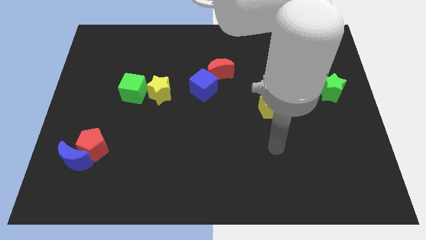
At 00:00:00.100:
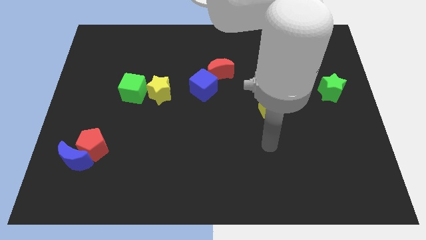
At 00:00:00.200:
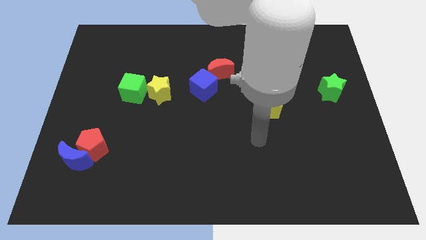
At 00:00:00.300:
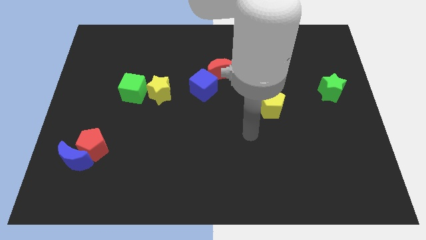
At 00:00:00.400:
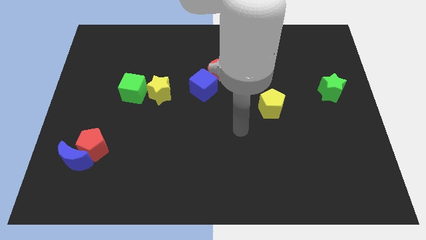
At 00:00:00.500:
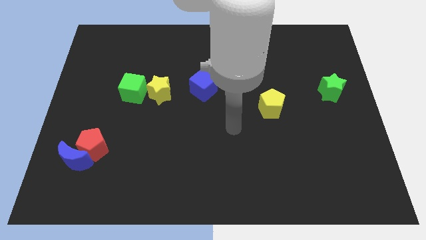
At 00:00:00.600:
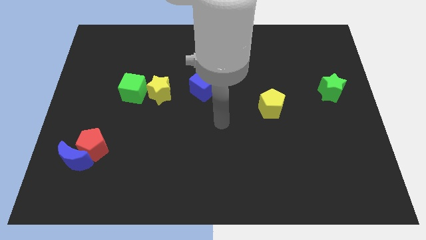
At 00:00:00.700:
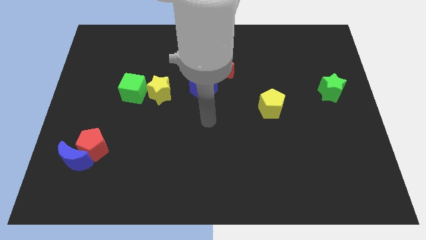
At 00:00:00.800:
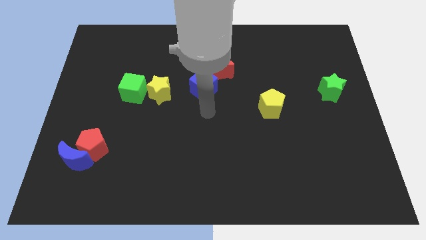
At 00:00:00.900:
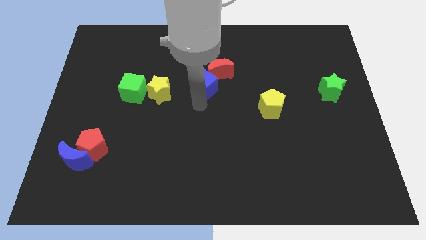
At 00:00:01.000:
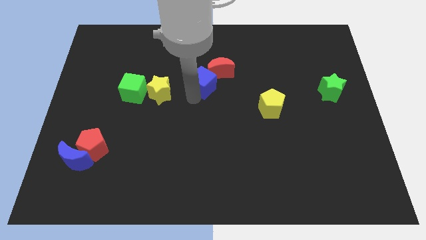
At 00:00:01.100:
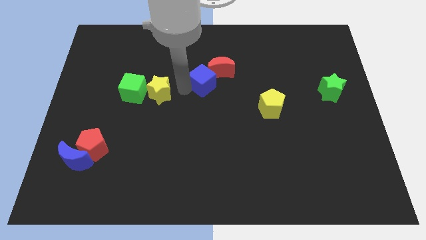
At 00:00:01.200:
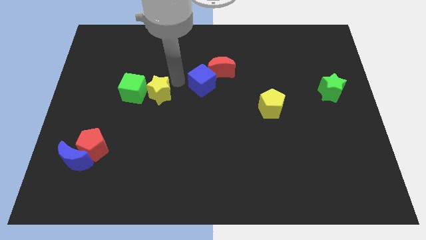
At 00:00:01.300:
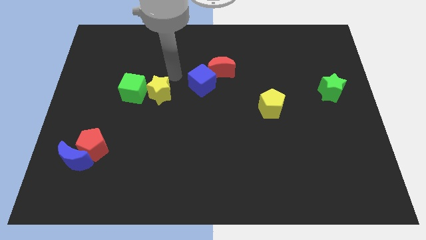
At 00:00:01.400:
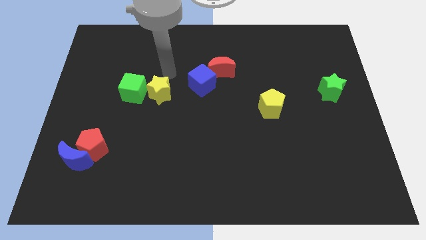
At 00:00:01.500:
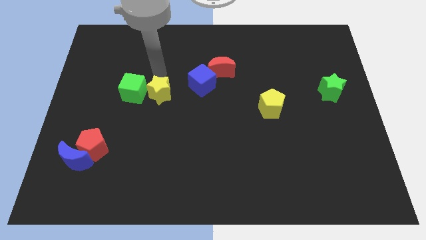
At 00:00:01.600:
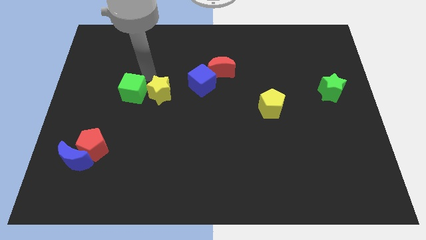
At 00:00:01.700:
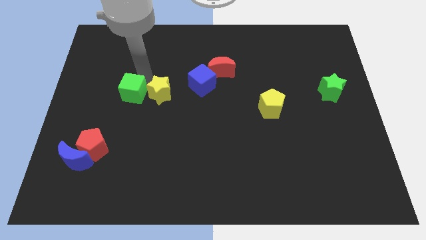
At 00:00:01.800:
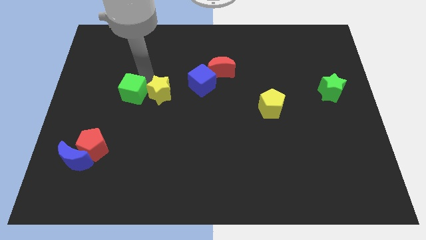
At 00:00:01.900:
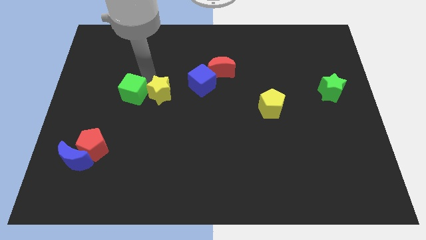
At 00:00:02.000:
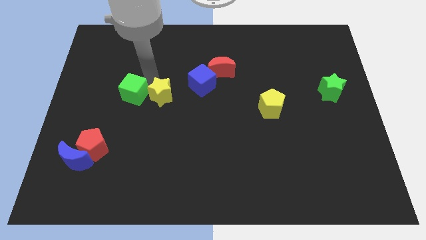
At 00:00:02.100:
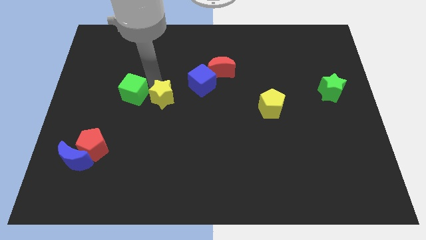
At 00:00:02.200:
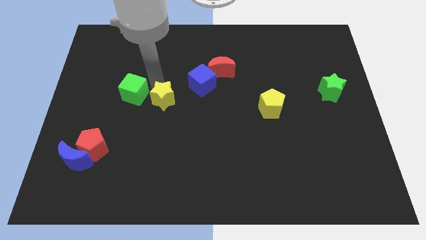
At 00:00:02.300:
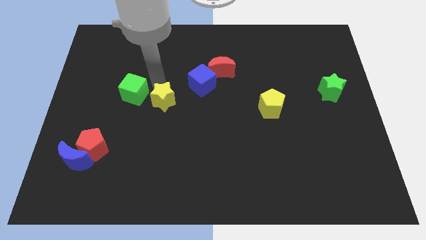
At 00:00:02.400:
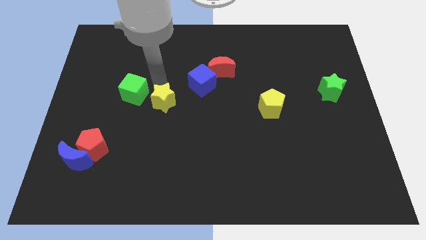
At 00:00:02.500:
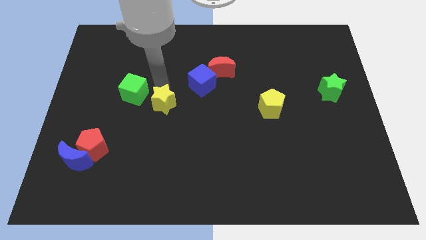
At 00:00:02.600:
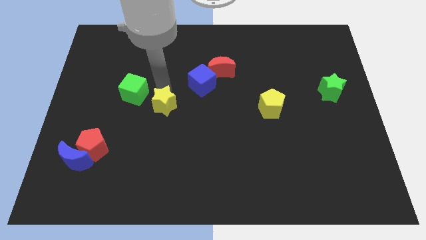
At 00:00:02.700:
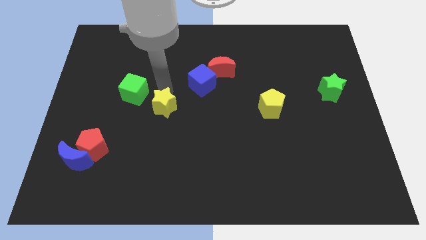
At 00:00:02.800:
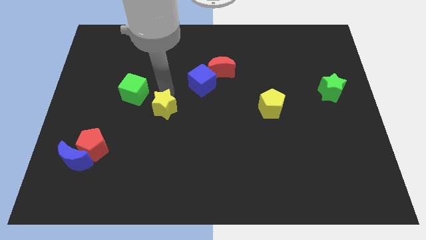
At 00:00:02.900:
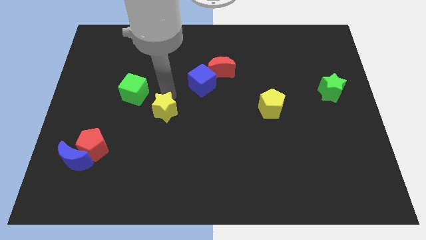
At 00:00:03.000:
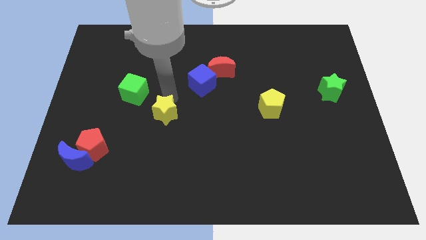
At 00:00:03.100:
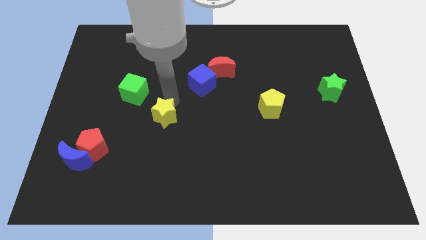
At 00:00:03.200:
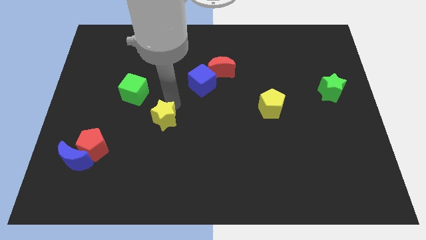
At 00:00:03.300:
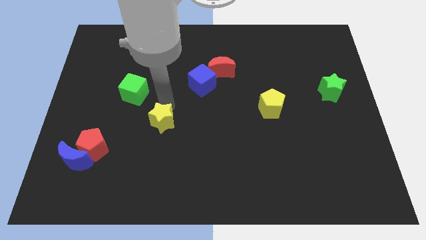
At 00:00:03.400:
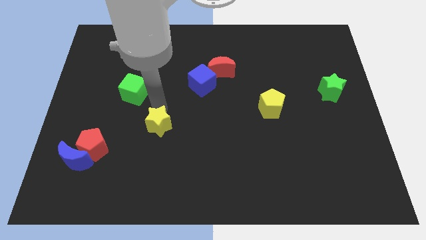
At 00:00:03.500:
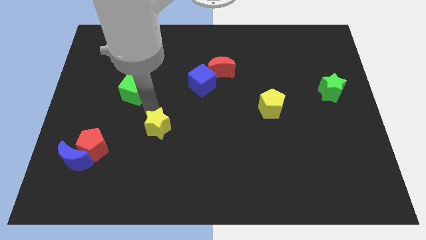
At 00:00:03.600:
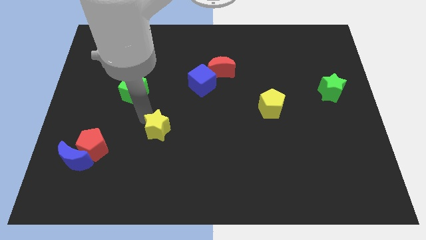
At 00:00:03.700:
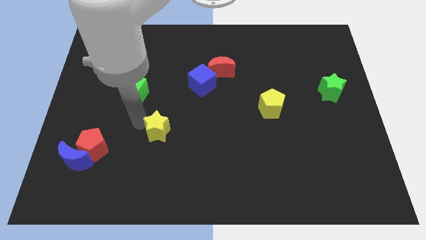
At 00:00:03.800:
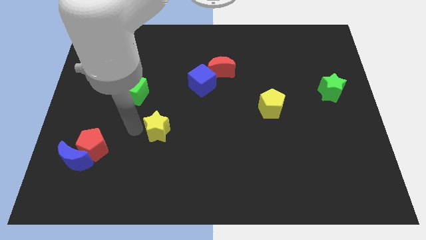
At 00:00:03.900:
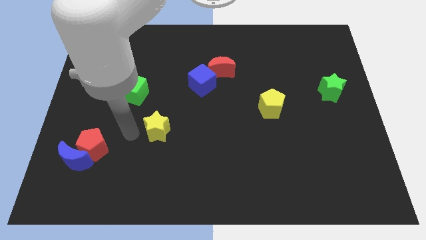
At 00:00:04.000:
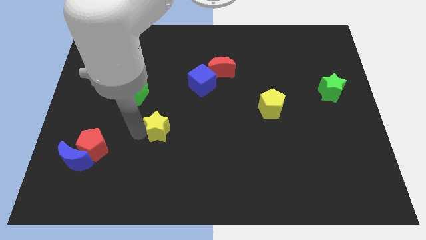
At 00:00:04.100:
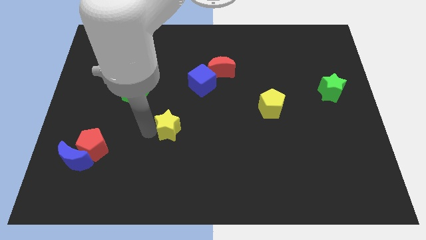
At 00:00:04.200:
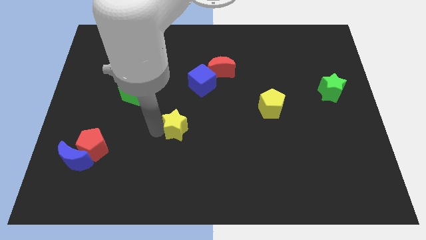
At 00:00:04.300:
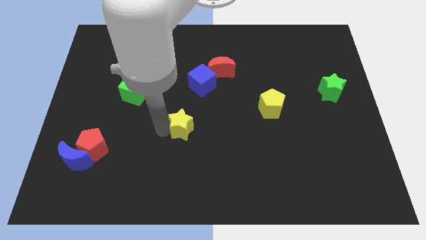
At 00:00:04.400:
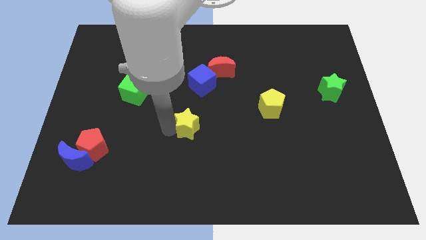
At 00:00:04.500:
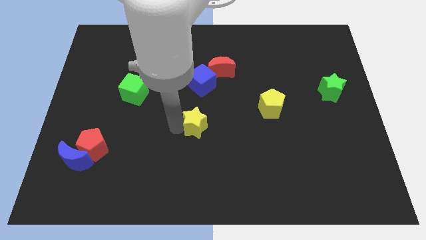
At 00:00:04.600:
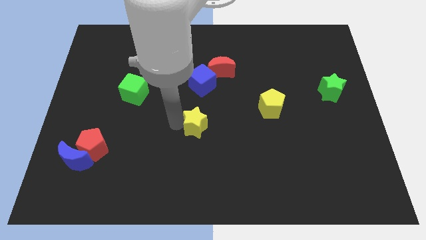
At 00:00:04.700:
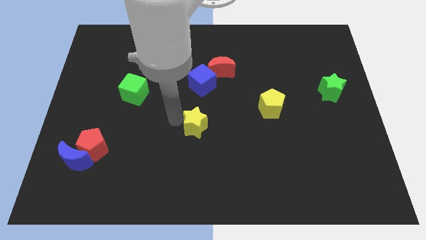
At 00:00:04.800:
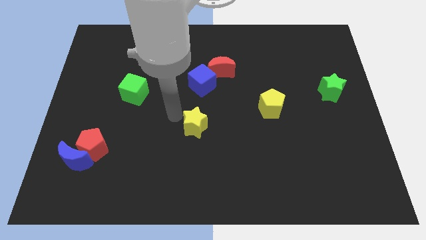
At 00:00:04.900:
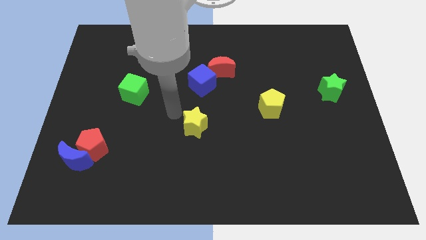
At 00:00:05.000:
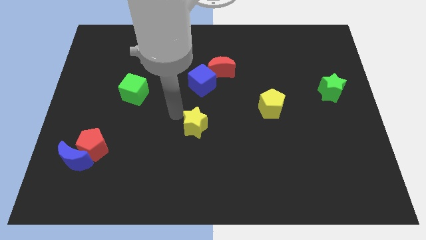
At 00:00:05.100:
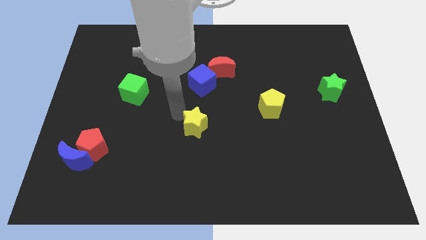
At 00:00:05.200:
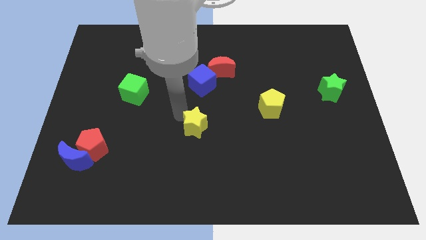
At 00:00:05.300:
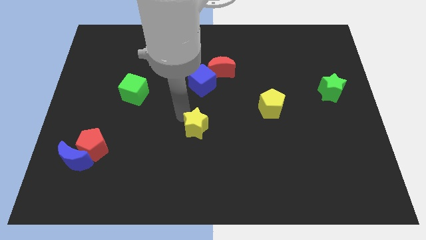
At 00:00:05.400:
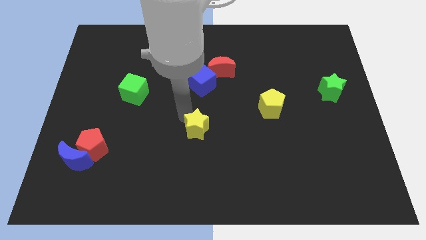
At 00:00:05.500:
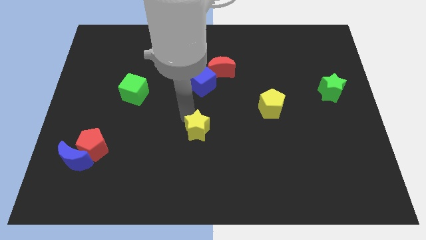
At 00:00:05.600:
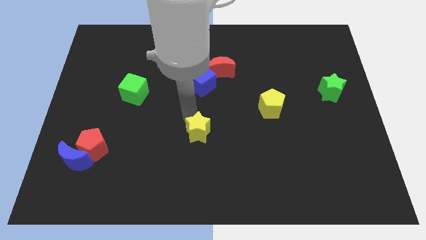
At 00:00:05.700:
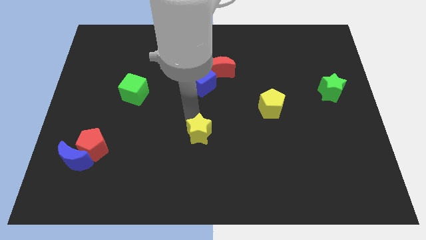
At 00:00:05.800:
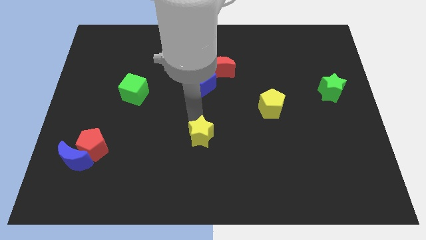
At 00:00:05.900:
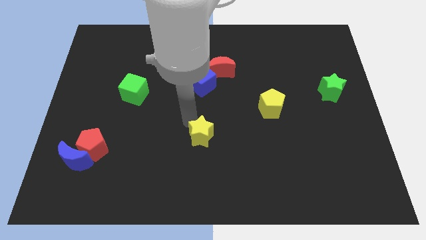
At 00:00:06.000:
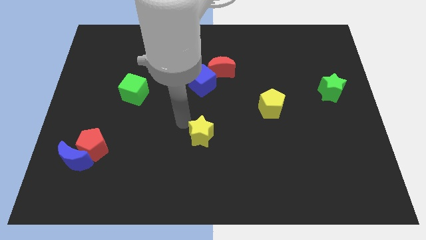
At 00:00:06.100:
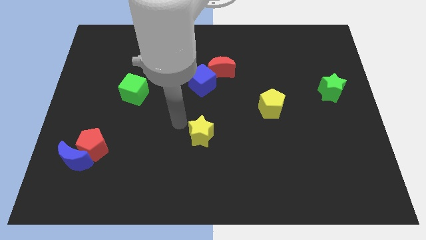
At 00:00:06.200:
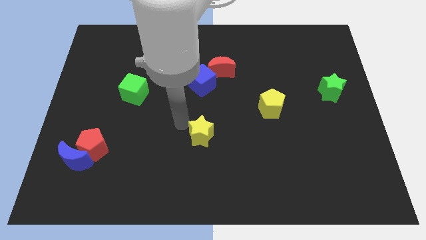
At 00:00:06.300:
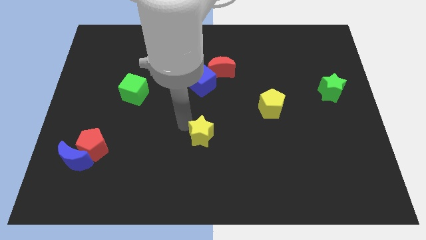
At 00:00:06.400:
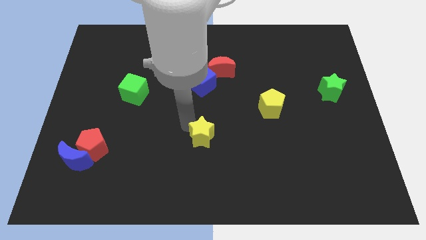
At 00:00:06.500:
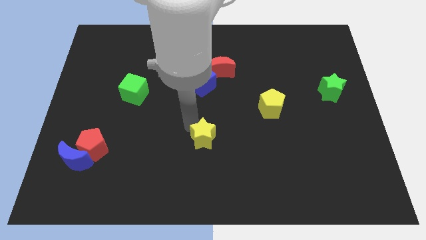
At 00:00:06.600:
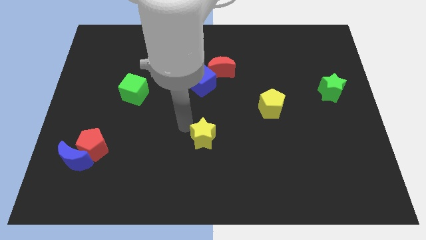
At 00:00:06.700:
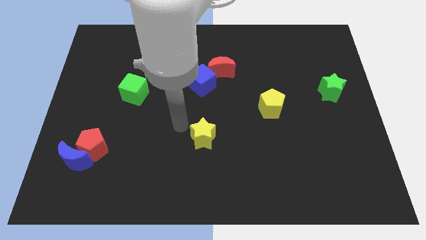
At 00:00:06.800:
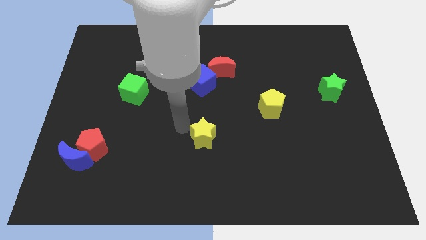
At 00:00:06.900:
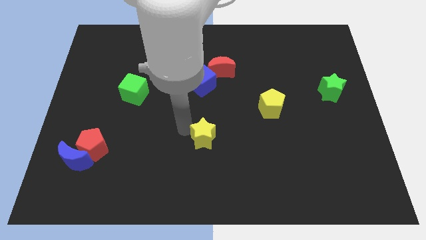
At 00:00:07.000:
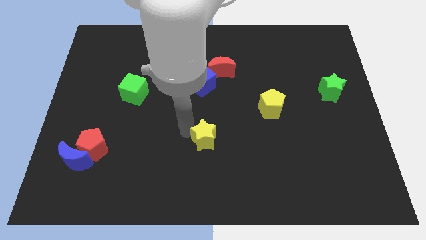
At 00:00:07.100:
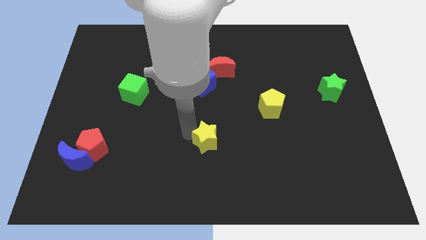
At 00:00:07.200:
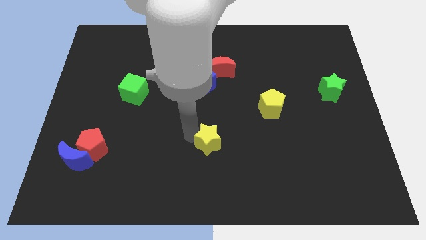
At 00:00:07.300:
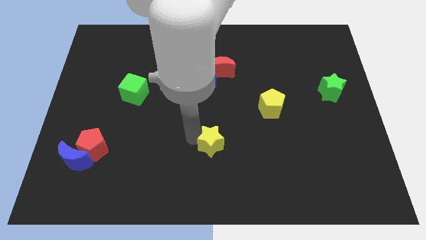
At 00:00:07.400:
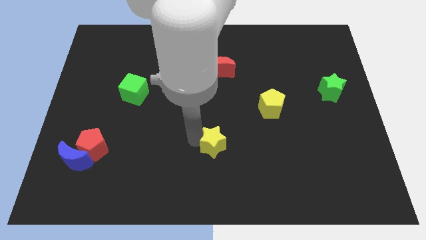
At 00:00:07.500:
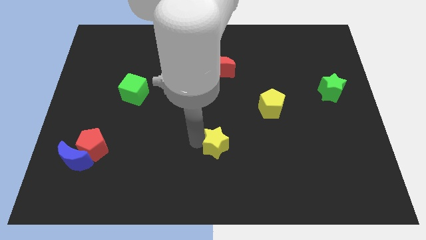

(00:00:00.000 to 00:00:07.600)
move the yellow star downwards and to the right diagonally

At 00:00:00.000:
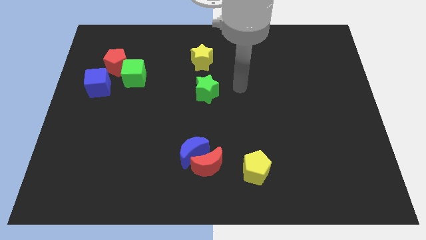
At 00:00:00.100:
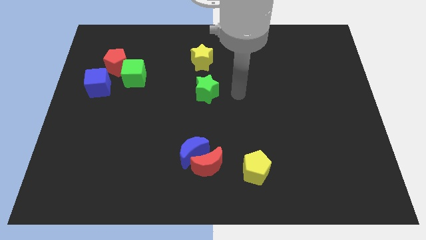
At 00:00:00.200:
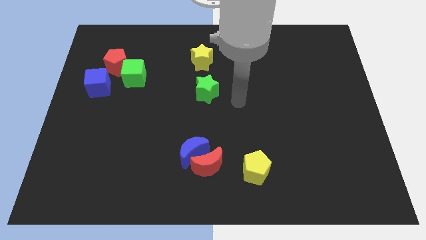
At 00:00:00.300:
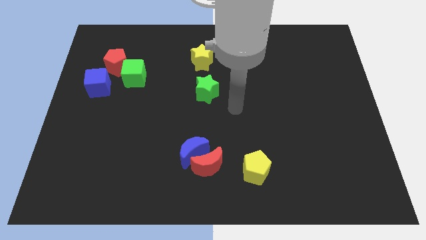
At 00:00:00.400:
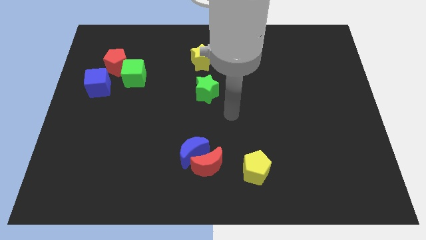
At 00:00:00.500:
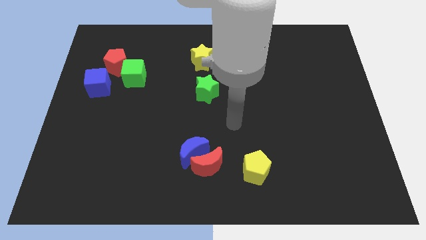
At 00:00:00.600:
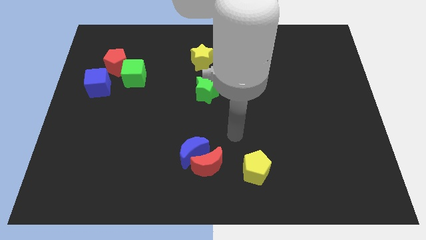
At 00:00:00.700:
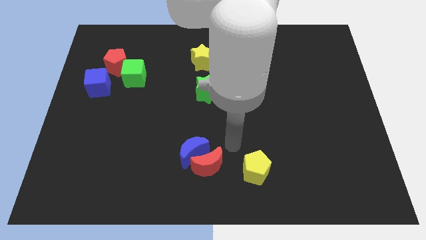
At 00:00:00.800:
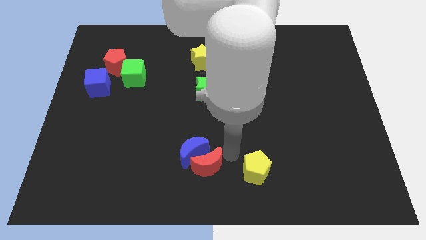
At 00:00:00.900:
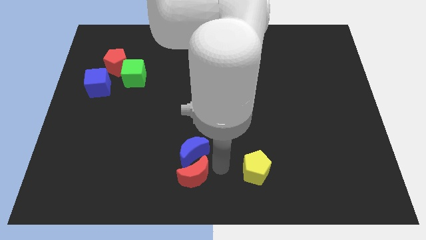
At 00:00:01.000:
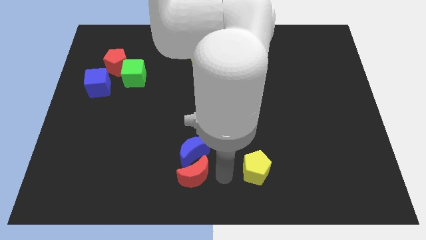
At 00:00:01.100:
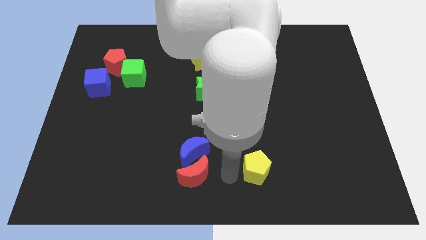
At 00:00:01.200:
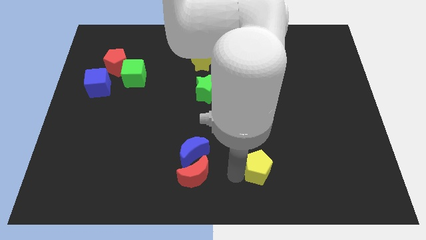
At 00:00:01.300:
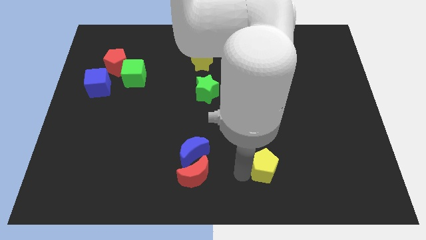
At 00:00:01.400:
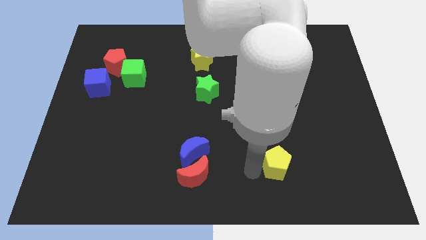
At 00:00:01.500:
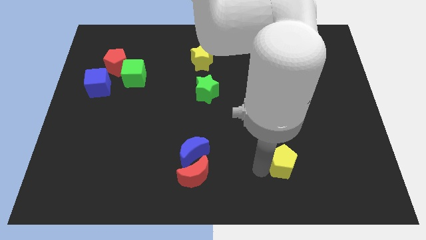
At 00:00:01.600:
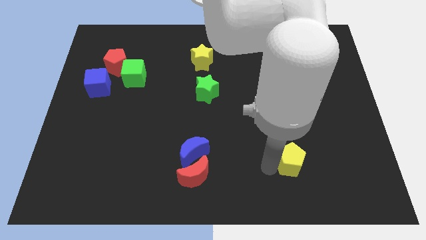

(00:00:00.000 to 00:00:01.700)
slide the yellow pentagon a bit right
